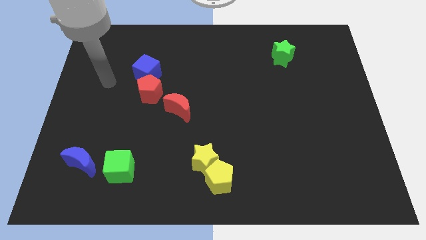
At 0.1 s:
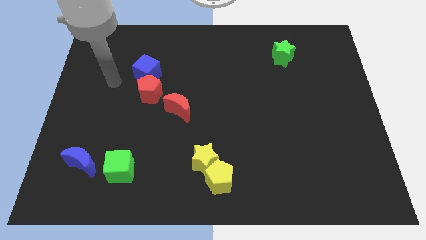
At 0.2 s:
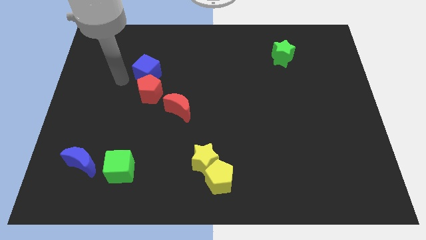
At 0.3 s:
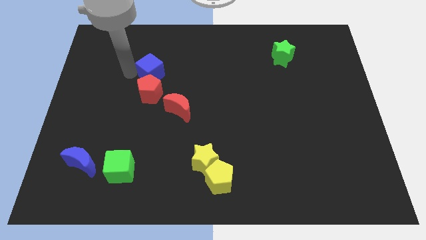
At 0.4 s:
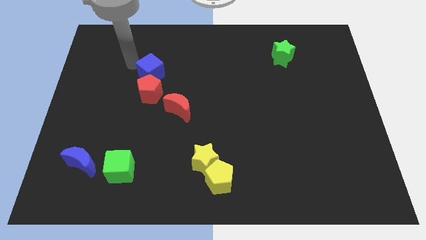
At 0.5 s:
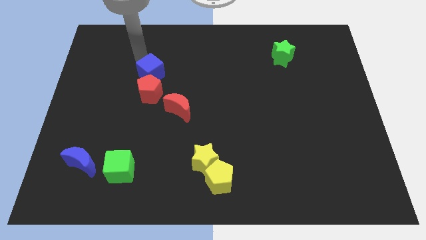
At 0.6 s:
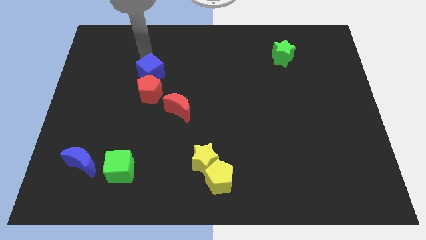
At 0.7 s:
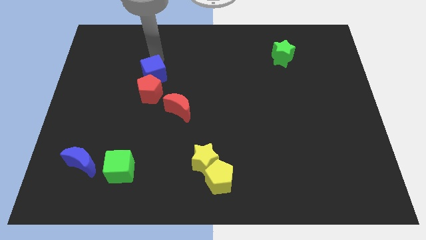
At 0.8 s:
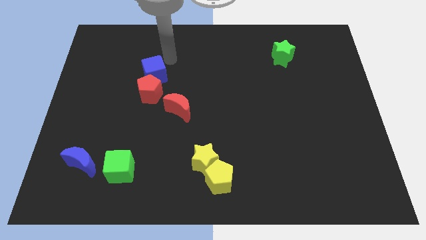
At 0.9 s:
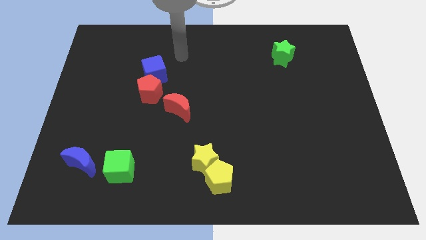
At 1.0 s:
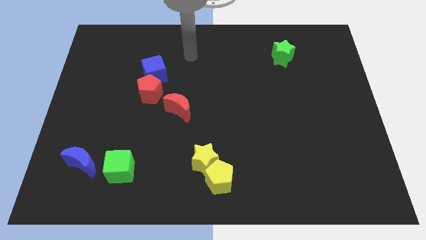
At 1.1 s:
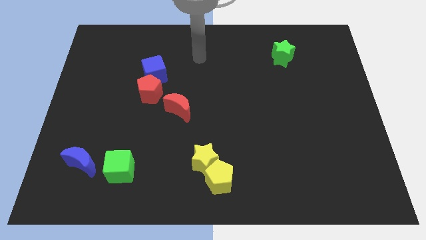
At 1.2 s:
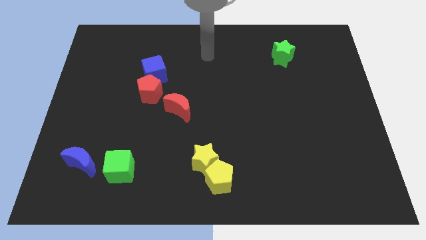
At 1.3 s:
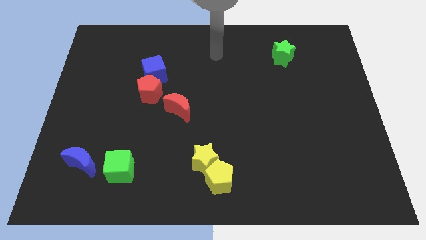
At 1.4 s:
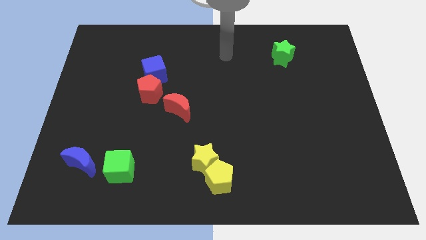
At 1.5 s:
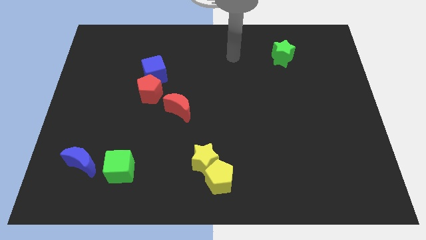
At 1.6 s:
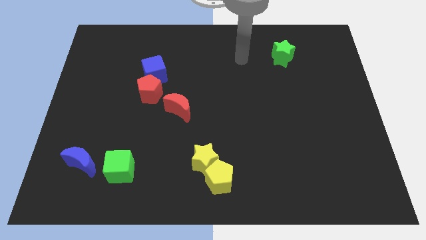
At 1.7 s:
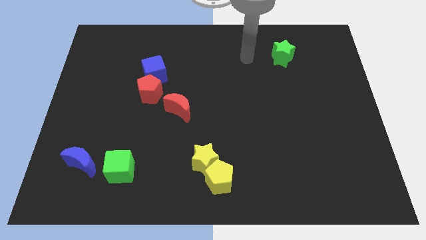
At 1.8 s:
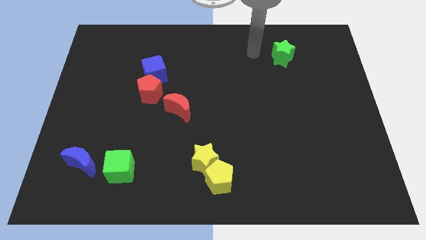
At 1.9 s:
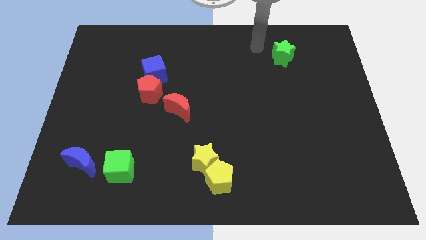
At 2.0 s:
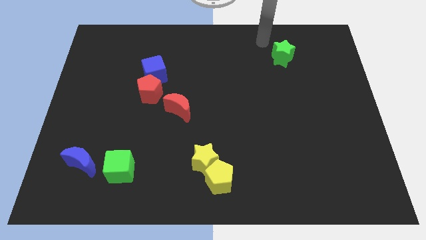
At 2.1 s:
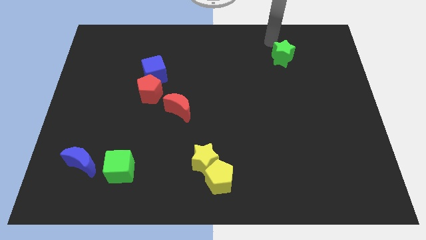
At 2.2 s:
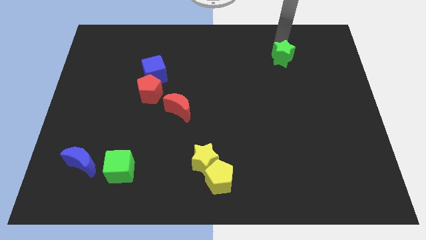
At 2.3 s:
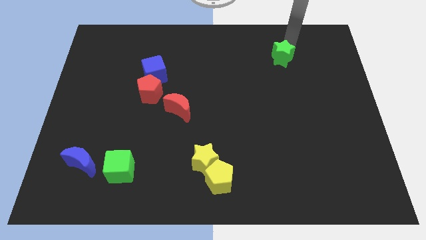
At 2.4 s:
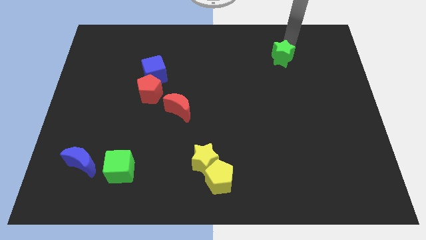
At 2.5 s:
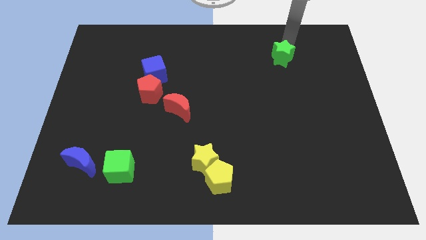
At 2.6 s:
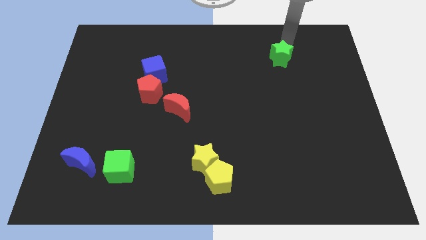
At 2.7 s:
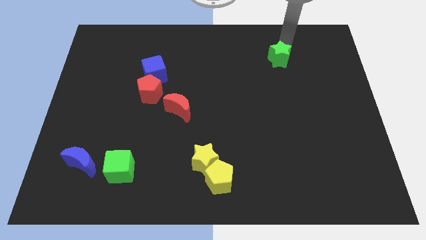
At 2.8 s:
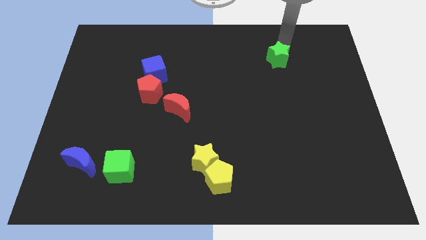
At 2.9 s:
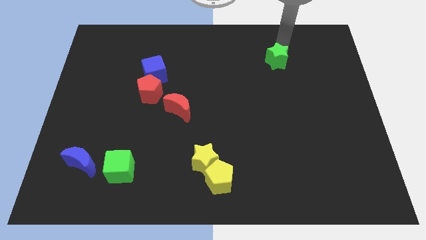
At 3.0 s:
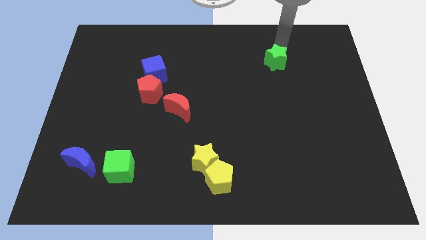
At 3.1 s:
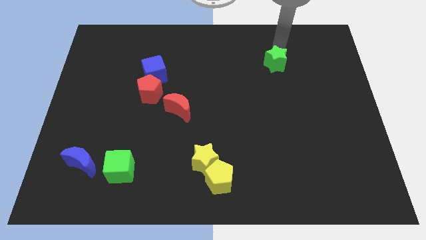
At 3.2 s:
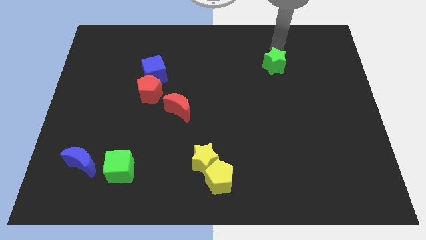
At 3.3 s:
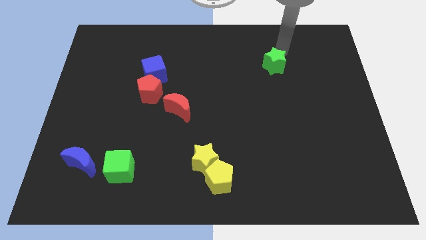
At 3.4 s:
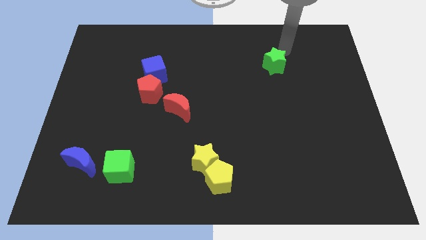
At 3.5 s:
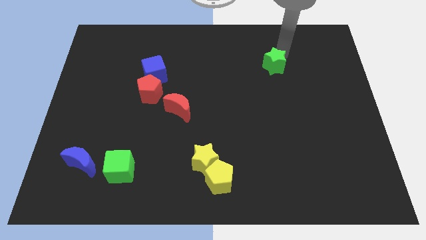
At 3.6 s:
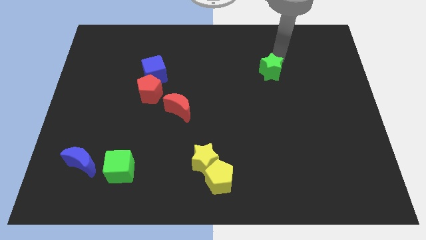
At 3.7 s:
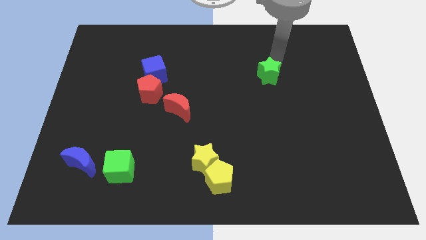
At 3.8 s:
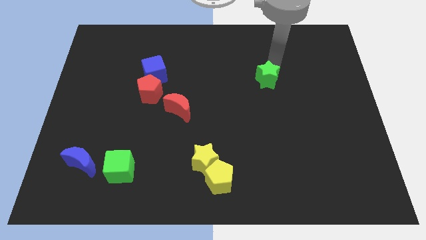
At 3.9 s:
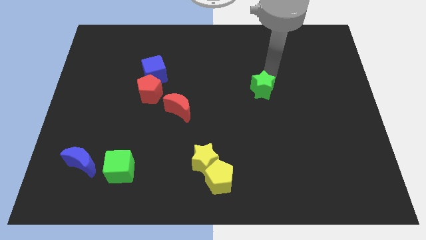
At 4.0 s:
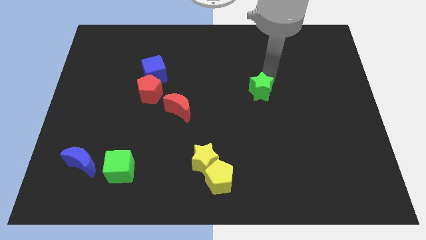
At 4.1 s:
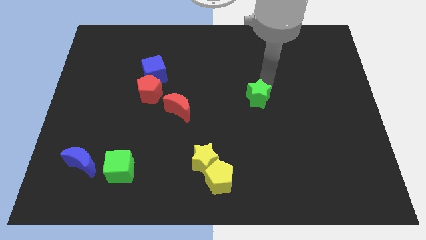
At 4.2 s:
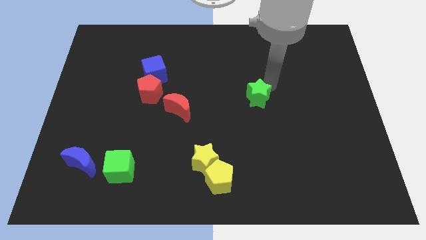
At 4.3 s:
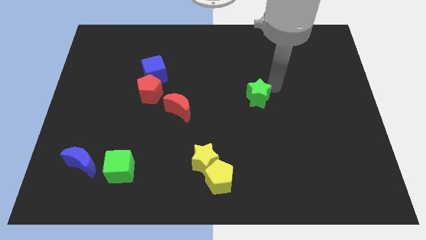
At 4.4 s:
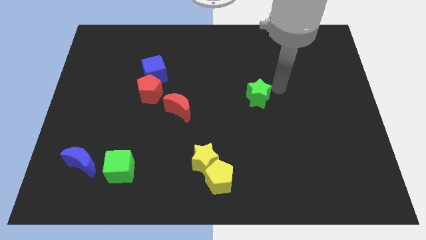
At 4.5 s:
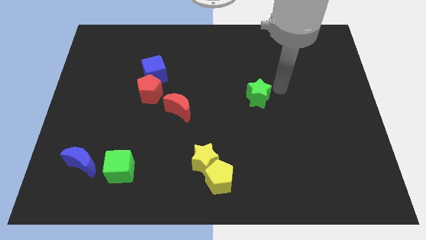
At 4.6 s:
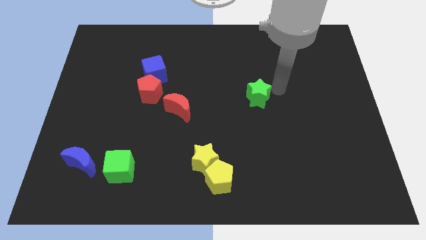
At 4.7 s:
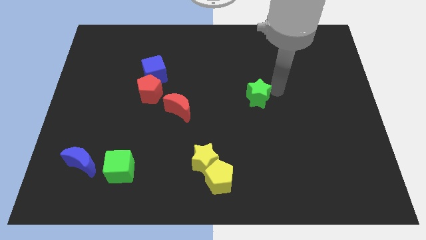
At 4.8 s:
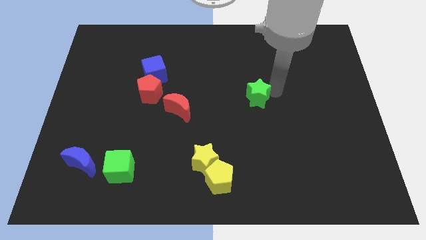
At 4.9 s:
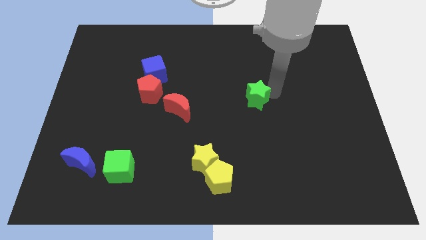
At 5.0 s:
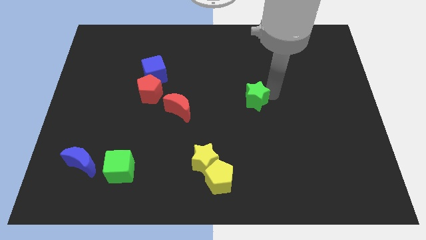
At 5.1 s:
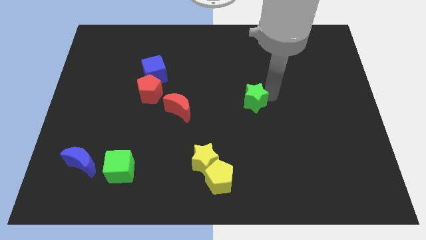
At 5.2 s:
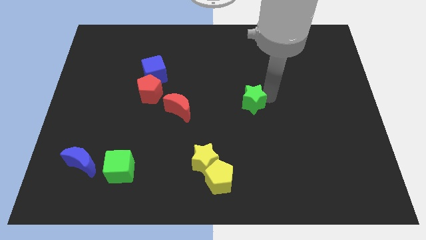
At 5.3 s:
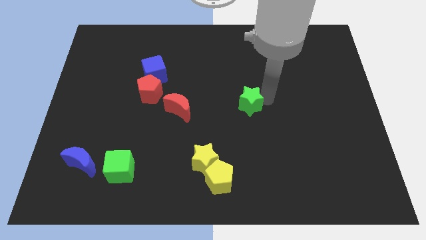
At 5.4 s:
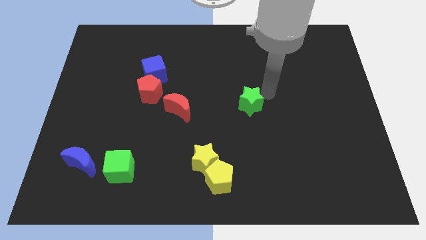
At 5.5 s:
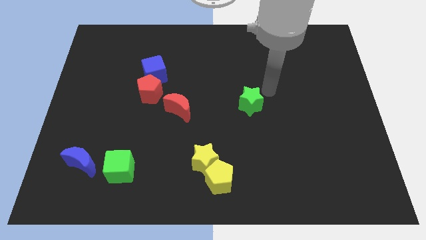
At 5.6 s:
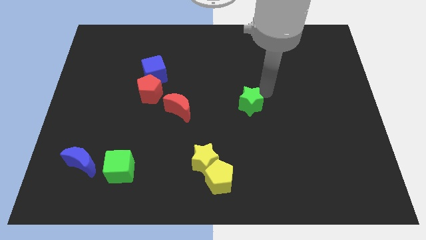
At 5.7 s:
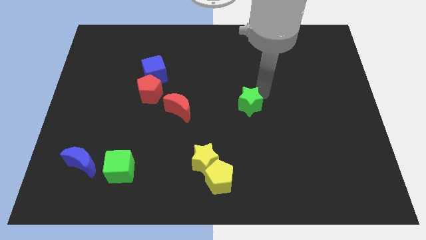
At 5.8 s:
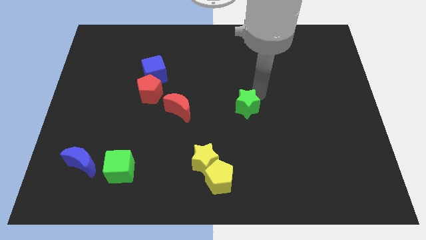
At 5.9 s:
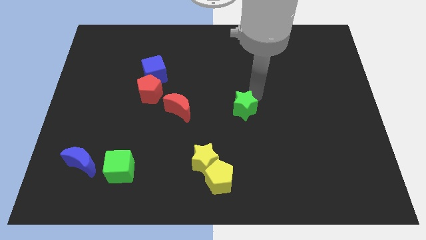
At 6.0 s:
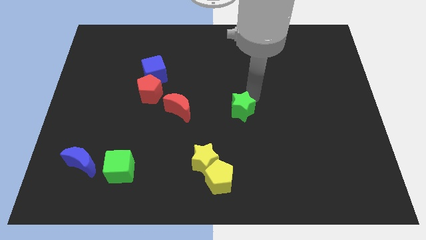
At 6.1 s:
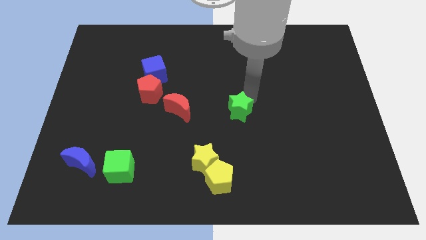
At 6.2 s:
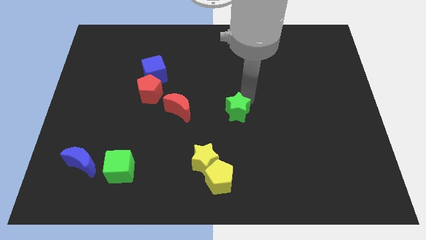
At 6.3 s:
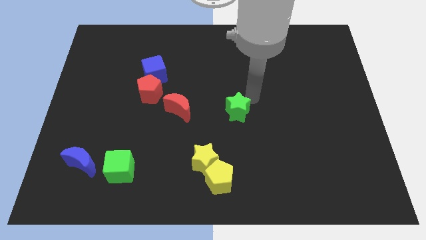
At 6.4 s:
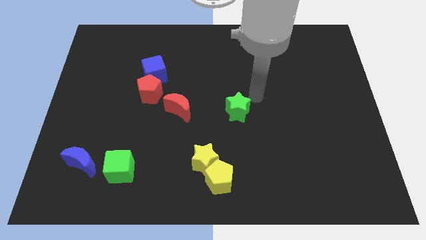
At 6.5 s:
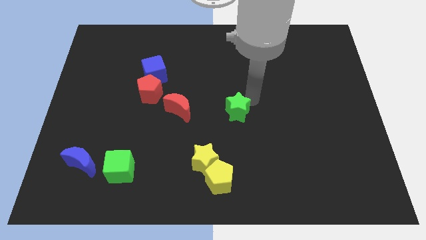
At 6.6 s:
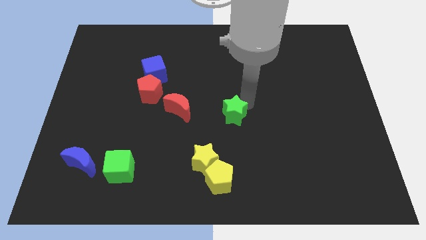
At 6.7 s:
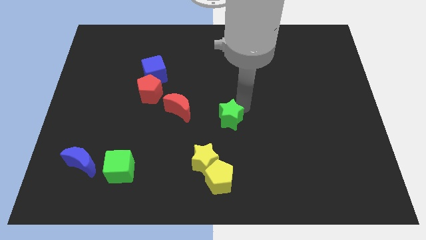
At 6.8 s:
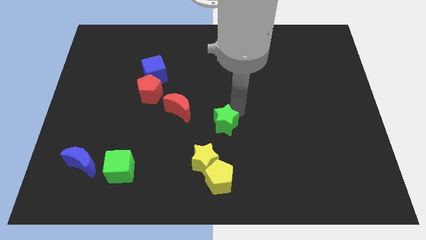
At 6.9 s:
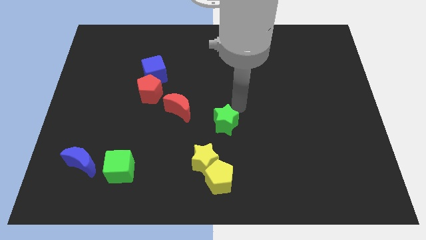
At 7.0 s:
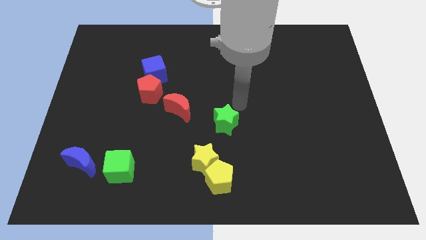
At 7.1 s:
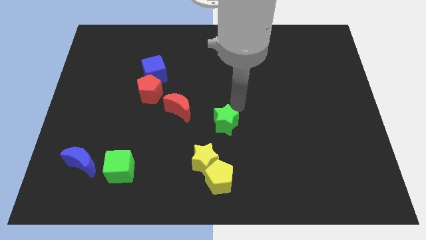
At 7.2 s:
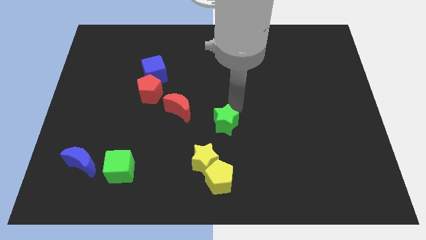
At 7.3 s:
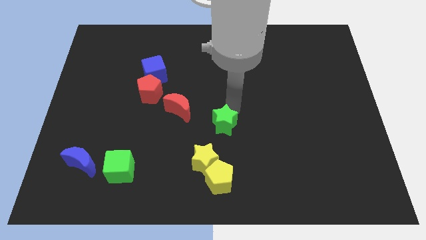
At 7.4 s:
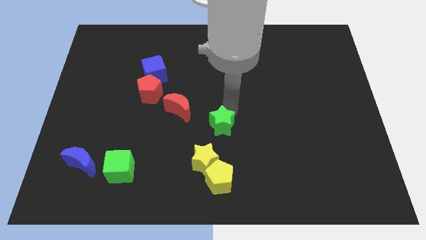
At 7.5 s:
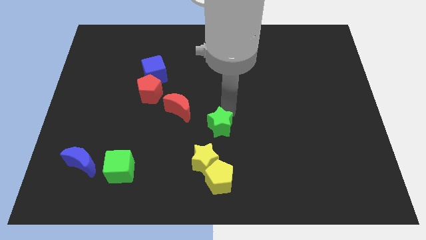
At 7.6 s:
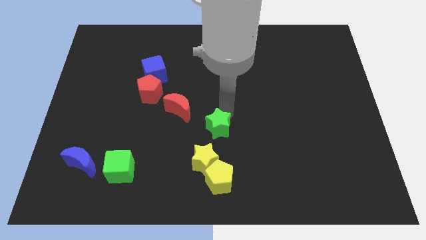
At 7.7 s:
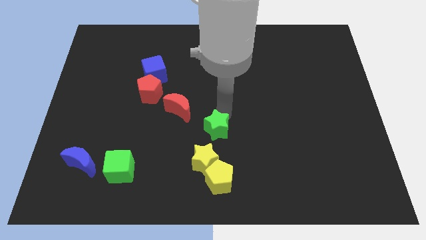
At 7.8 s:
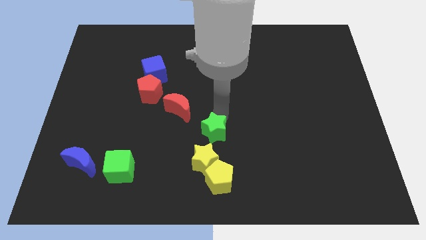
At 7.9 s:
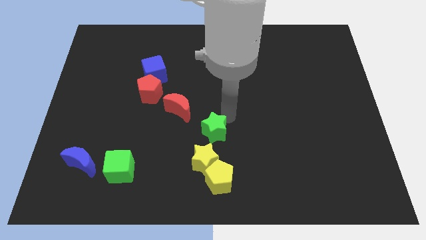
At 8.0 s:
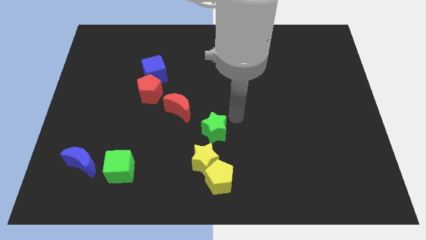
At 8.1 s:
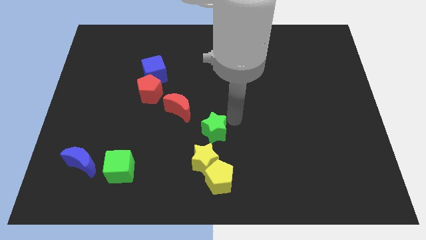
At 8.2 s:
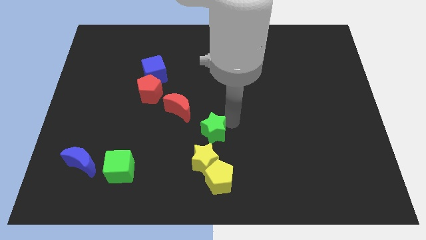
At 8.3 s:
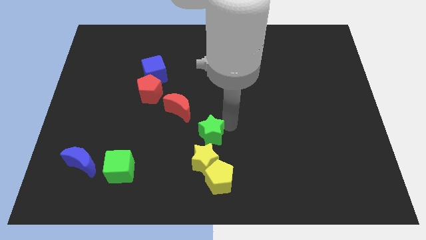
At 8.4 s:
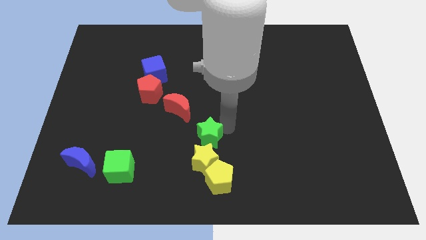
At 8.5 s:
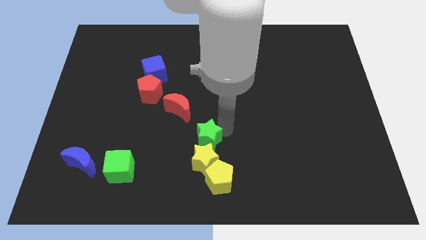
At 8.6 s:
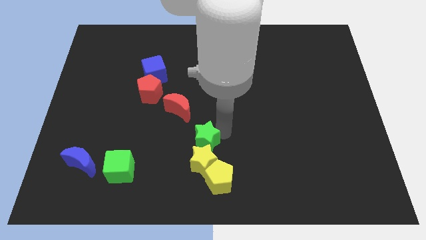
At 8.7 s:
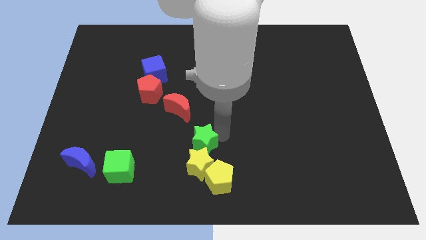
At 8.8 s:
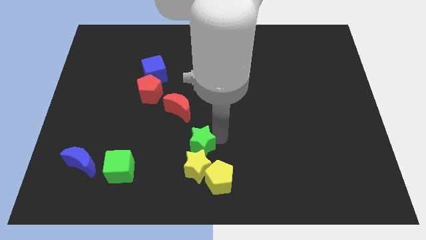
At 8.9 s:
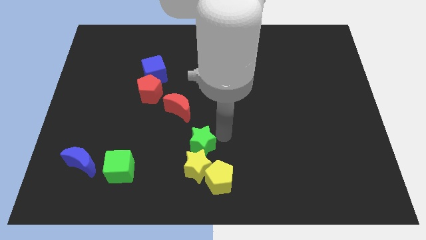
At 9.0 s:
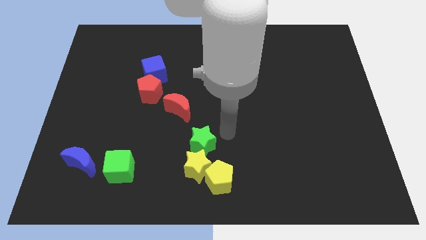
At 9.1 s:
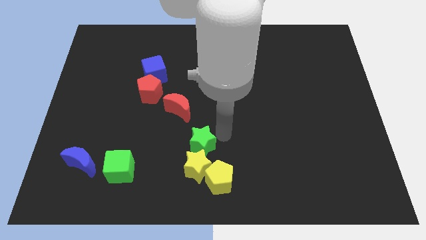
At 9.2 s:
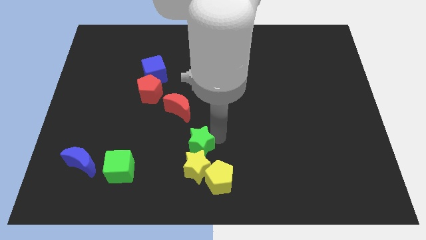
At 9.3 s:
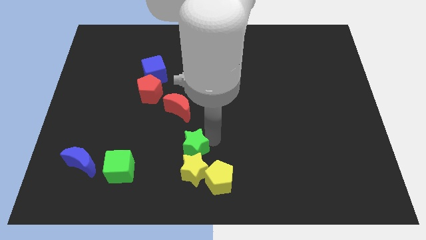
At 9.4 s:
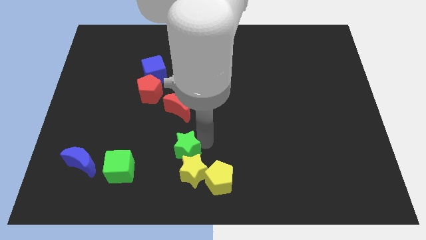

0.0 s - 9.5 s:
move the green star to the right of the green cube
